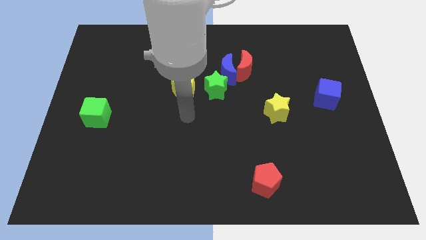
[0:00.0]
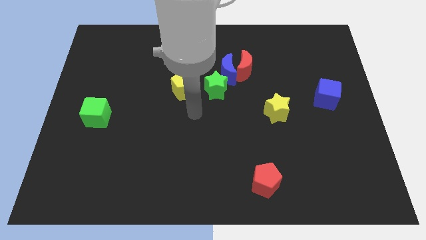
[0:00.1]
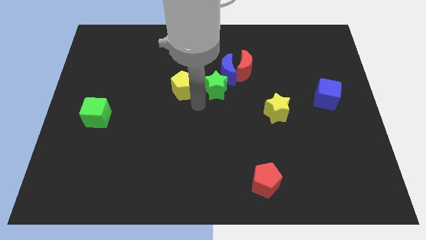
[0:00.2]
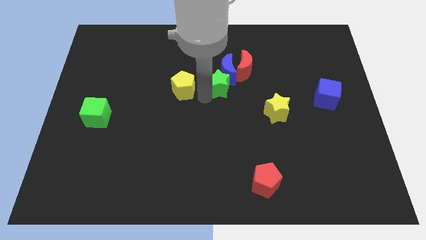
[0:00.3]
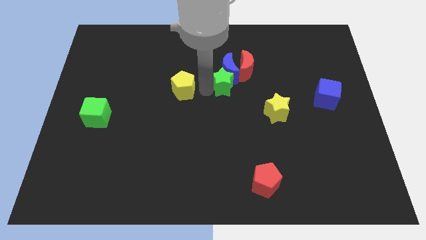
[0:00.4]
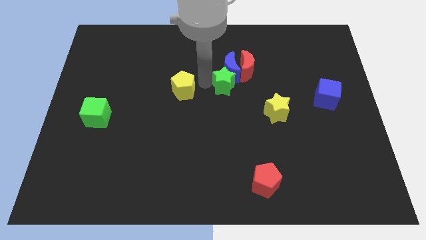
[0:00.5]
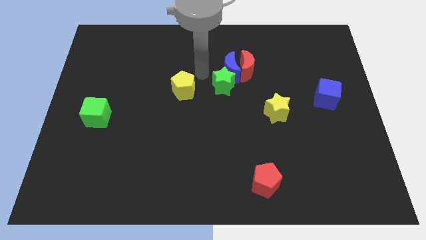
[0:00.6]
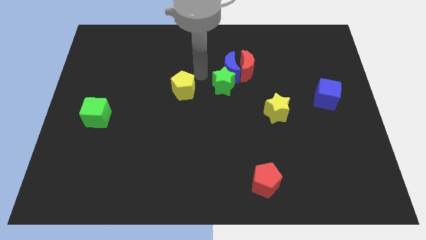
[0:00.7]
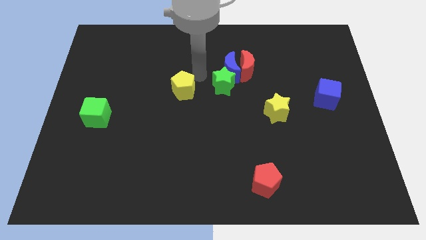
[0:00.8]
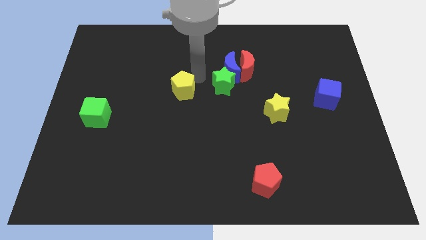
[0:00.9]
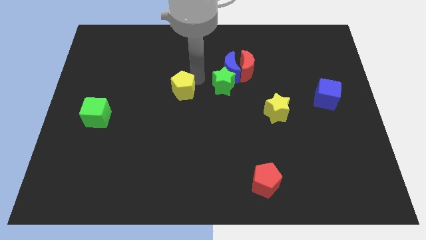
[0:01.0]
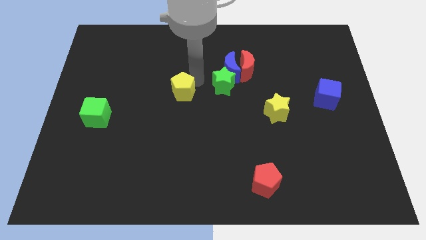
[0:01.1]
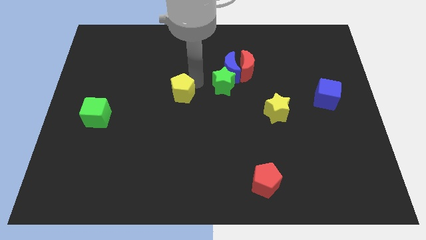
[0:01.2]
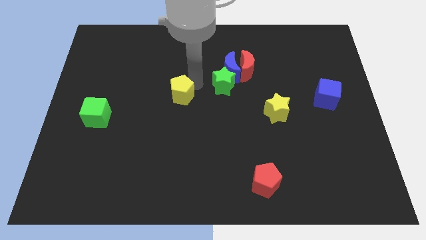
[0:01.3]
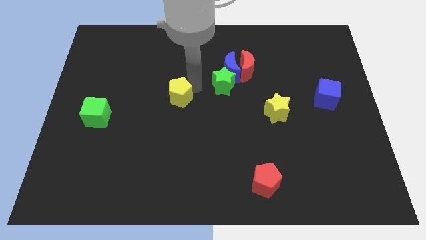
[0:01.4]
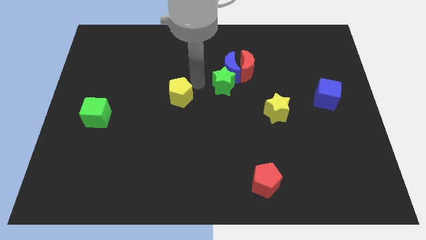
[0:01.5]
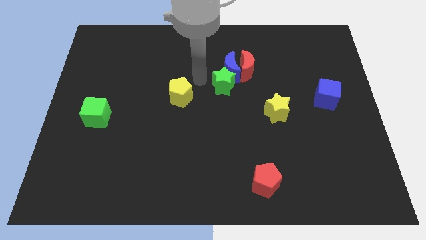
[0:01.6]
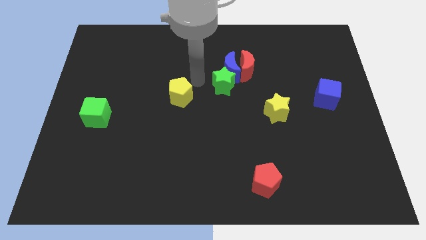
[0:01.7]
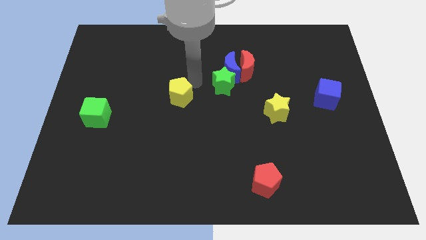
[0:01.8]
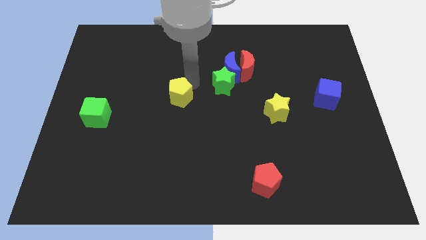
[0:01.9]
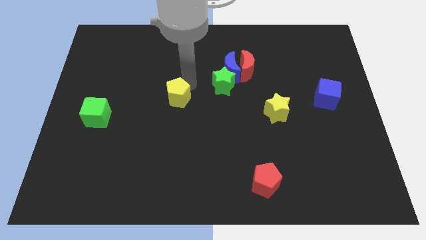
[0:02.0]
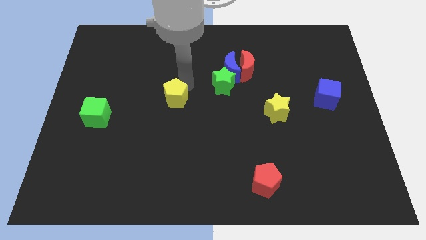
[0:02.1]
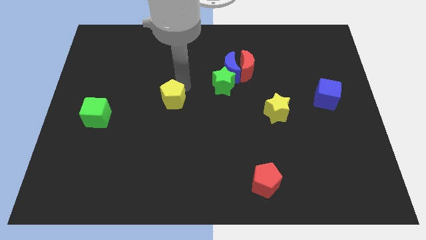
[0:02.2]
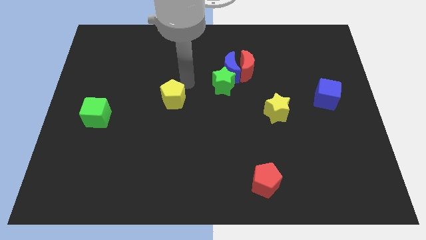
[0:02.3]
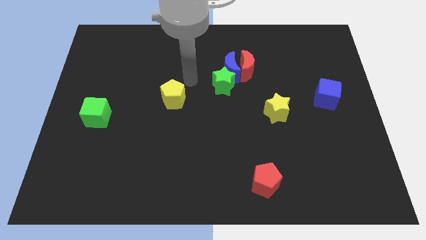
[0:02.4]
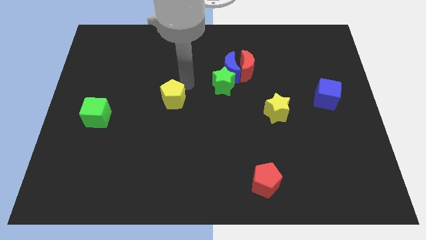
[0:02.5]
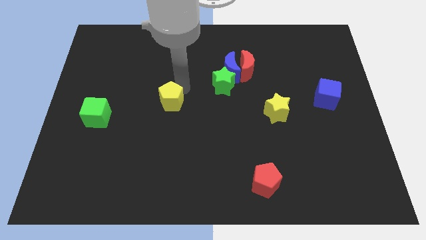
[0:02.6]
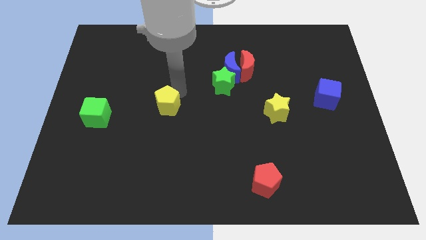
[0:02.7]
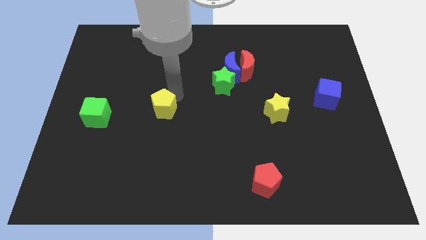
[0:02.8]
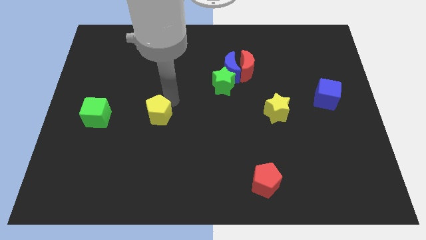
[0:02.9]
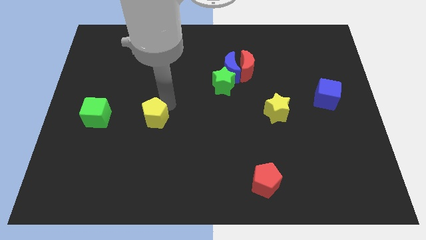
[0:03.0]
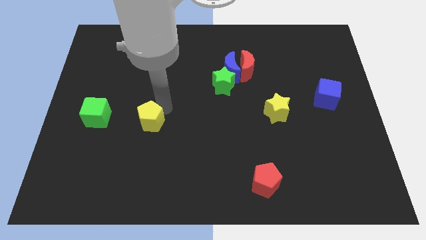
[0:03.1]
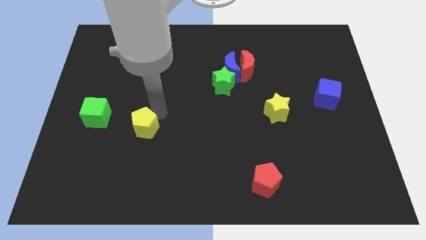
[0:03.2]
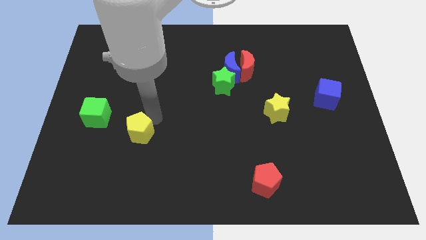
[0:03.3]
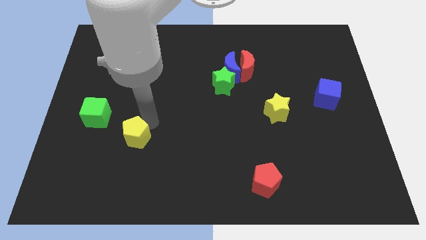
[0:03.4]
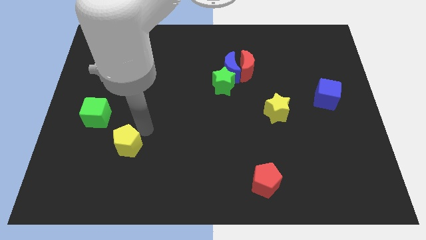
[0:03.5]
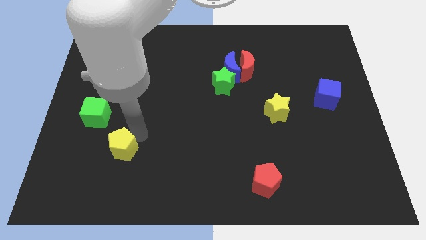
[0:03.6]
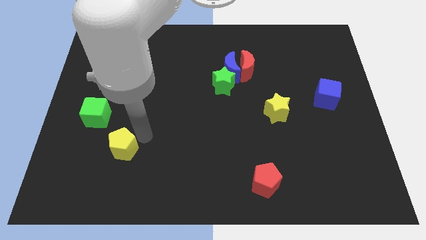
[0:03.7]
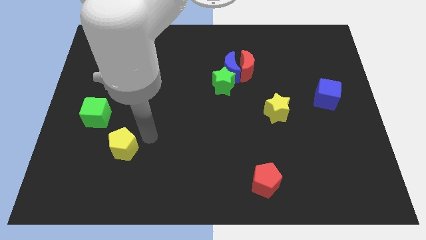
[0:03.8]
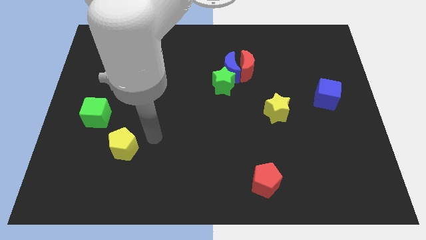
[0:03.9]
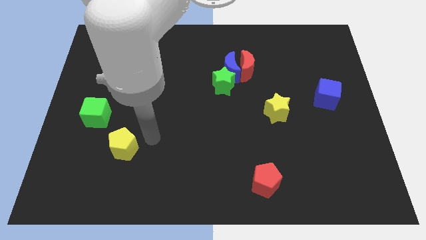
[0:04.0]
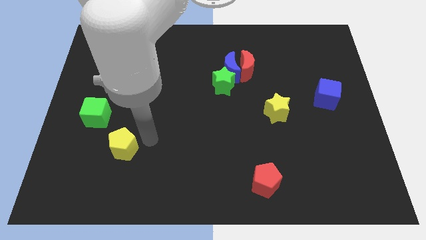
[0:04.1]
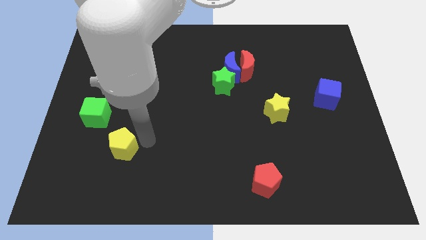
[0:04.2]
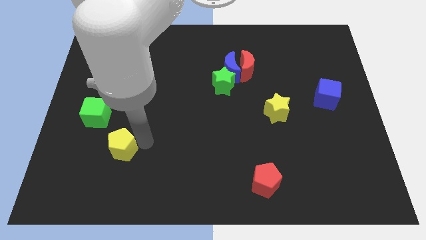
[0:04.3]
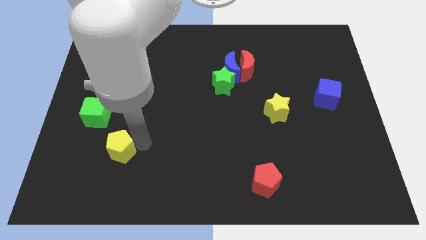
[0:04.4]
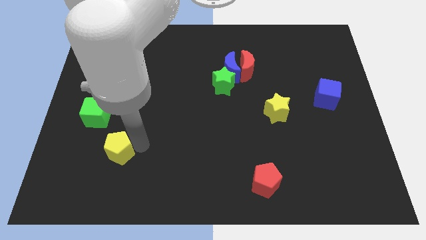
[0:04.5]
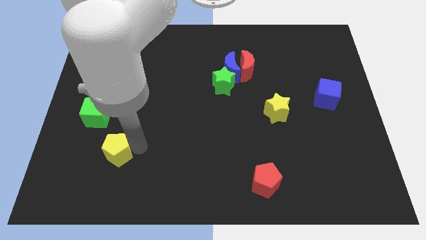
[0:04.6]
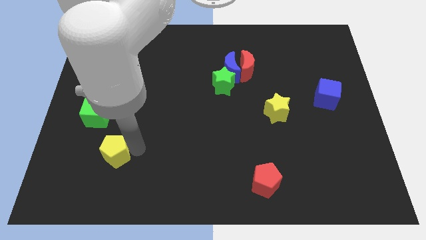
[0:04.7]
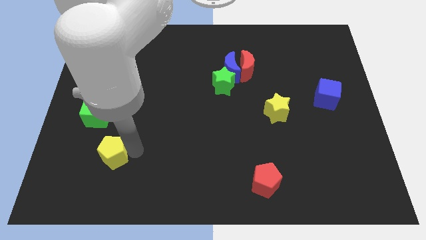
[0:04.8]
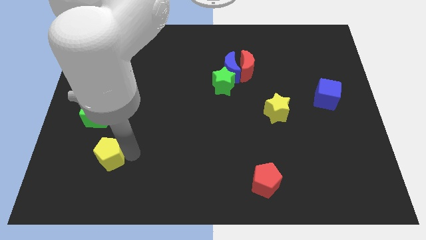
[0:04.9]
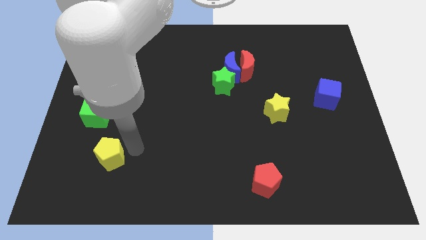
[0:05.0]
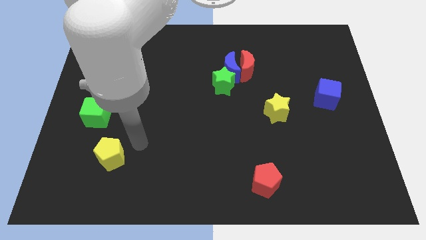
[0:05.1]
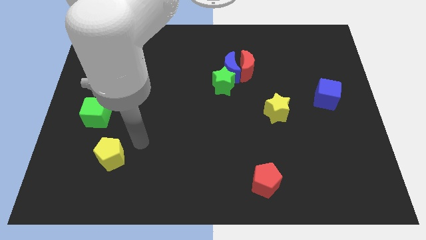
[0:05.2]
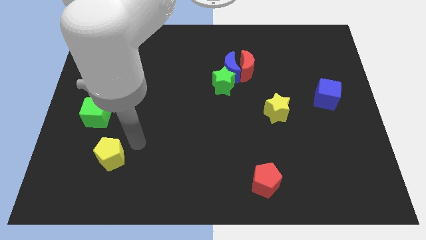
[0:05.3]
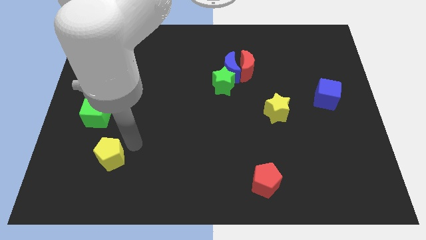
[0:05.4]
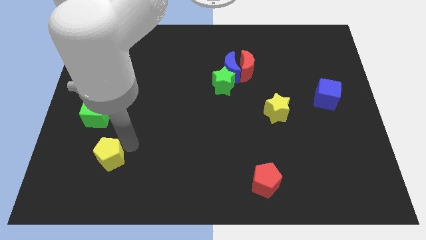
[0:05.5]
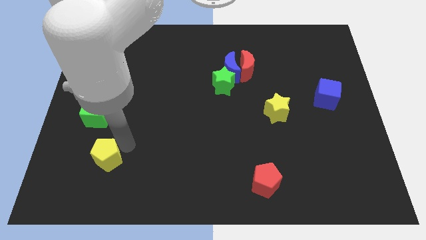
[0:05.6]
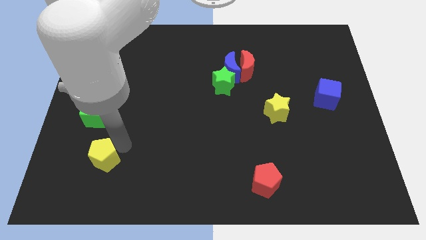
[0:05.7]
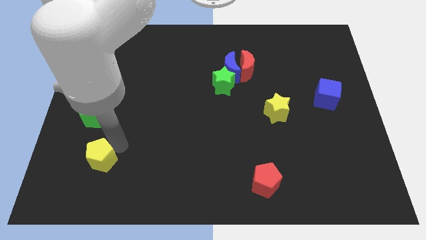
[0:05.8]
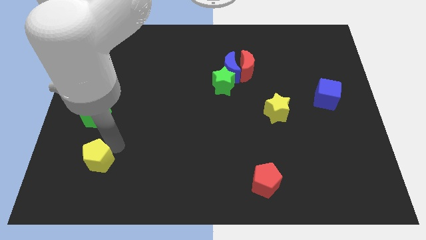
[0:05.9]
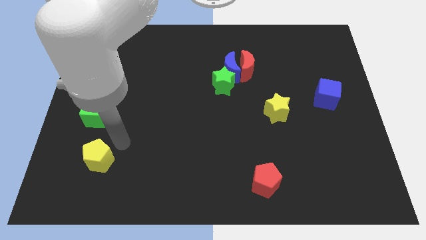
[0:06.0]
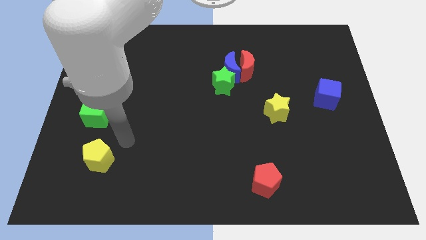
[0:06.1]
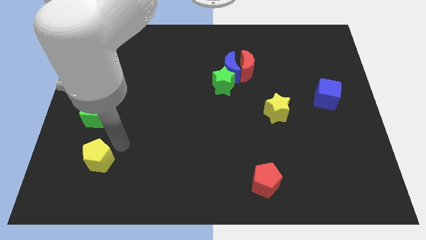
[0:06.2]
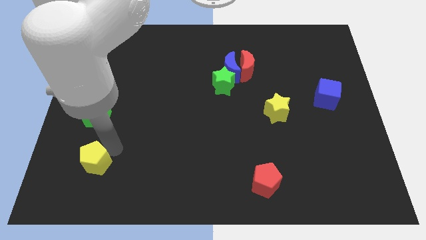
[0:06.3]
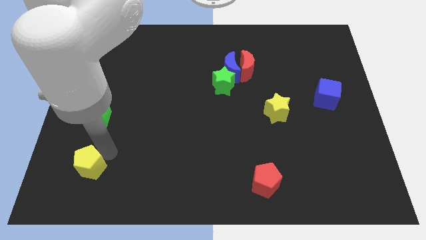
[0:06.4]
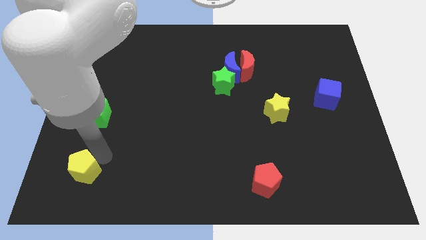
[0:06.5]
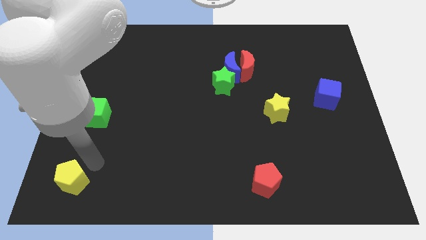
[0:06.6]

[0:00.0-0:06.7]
move the yellow pentagon to the bottom left

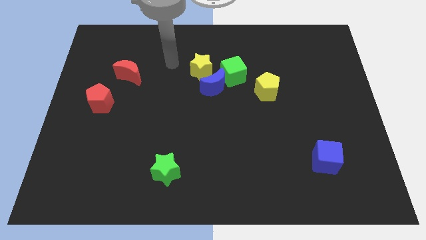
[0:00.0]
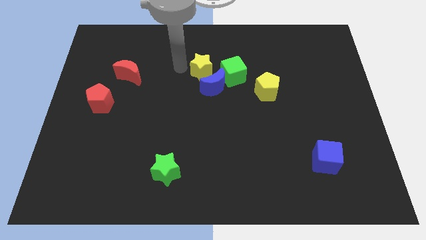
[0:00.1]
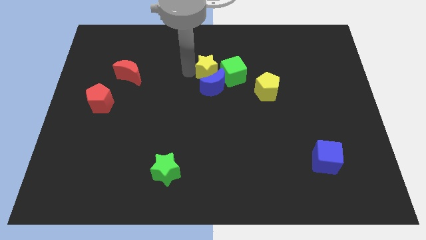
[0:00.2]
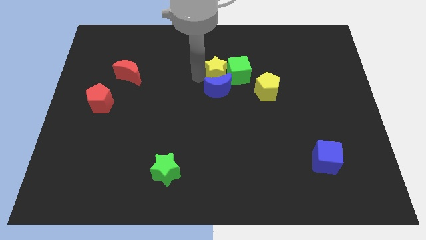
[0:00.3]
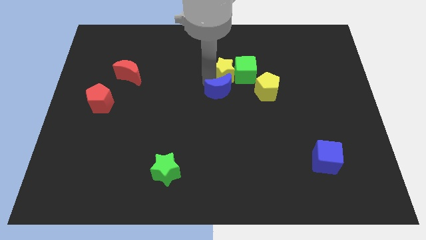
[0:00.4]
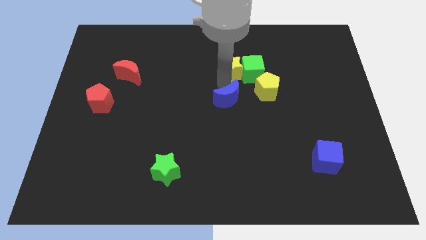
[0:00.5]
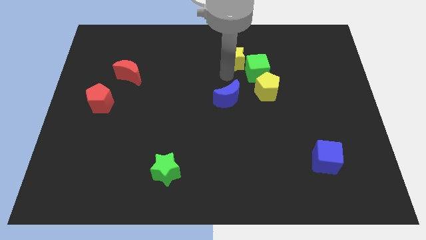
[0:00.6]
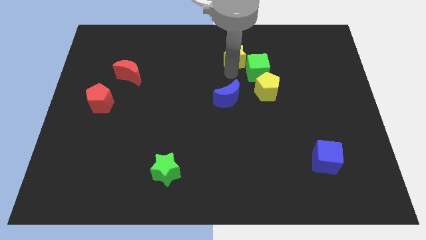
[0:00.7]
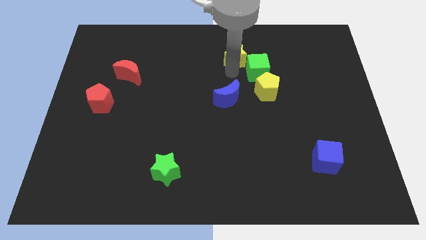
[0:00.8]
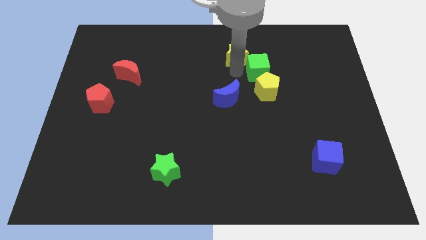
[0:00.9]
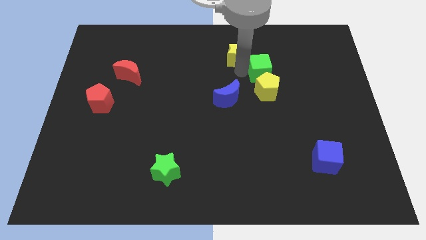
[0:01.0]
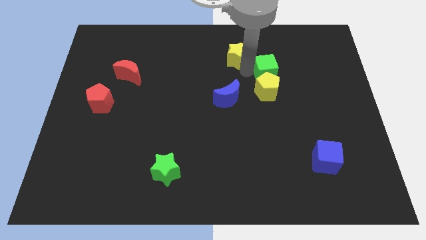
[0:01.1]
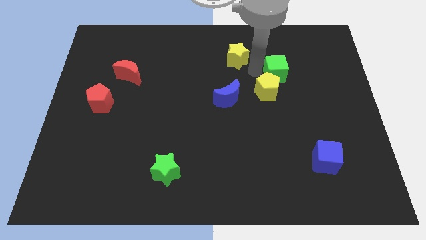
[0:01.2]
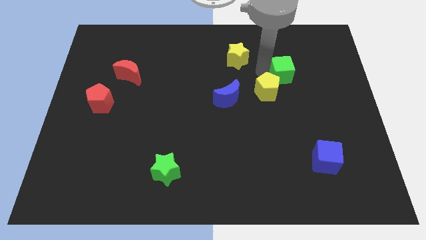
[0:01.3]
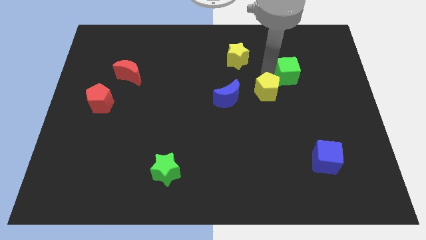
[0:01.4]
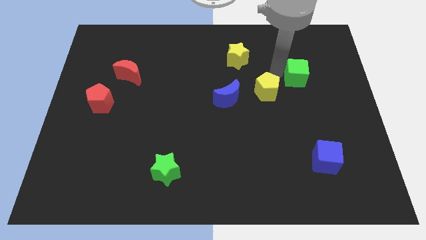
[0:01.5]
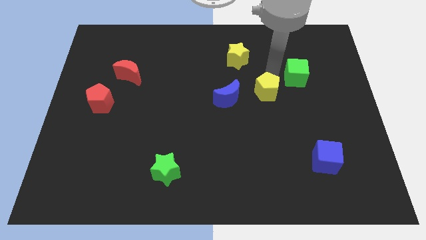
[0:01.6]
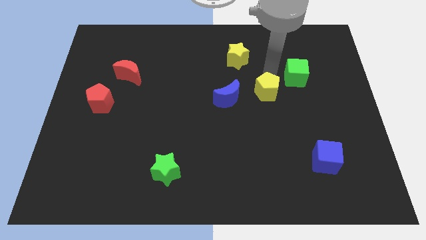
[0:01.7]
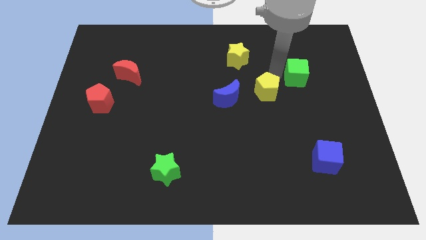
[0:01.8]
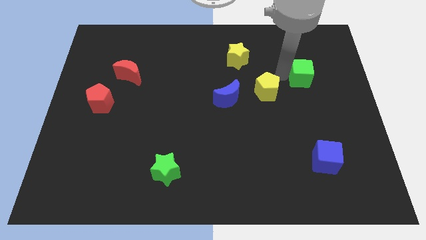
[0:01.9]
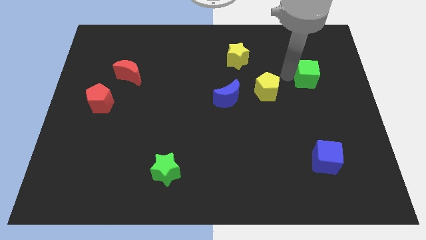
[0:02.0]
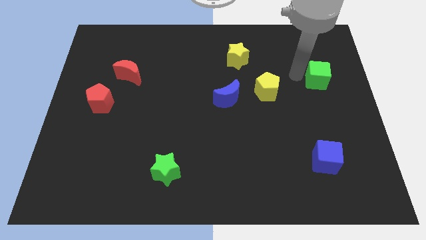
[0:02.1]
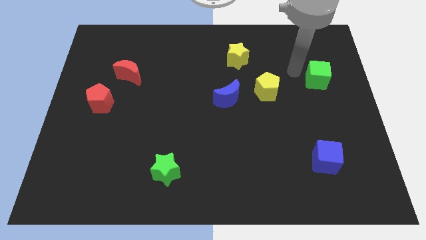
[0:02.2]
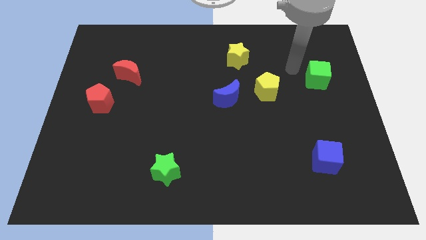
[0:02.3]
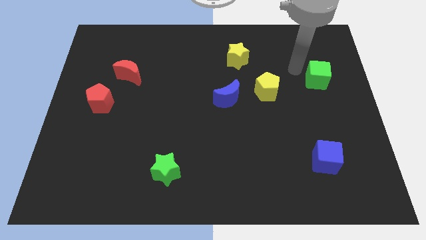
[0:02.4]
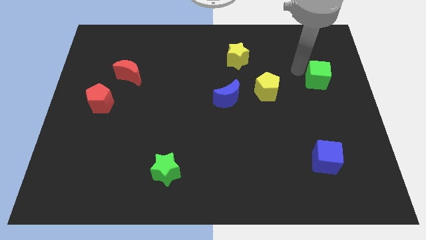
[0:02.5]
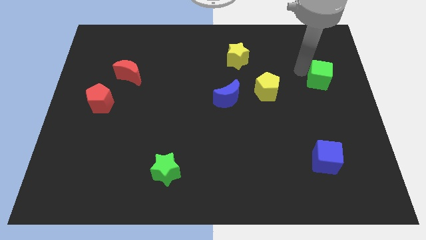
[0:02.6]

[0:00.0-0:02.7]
slide the green cube to the right side of the board
